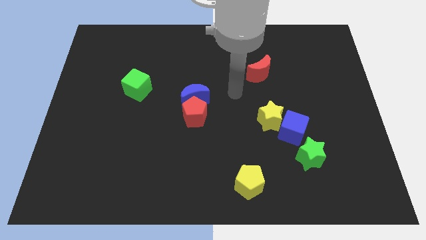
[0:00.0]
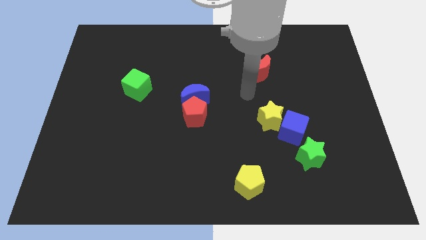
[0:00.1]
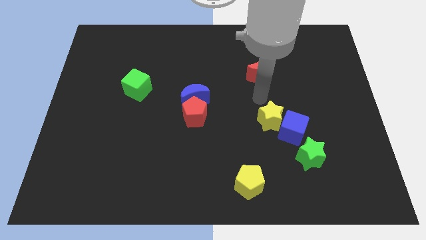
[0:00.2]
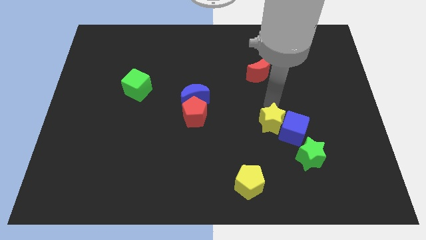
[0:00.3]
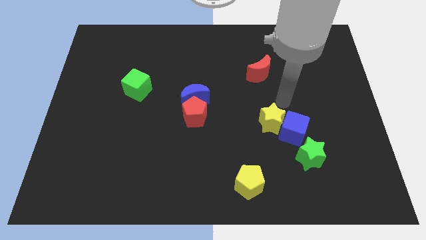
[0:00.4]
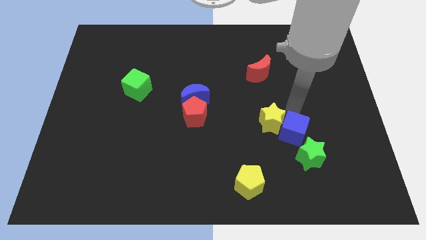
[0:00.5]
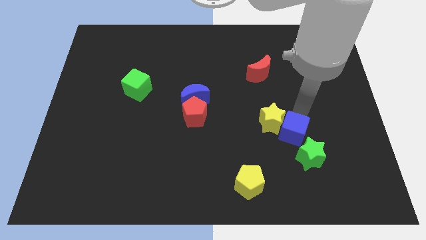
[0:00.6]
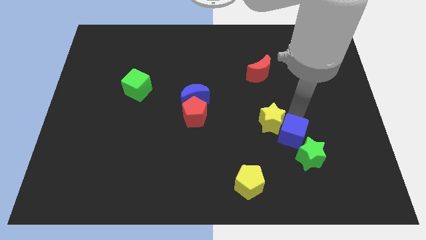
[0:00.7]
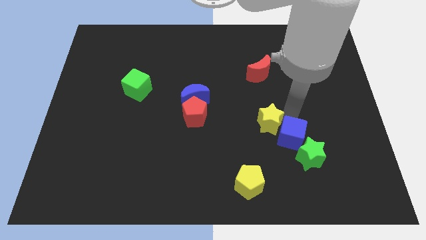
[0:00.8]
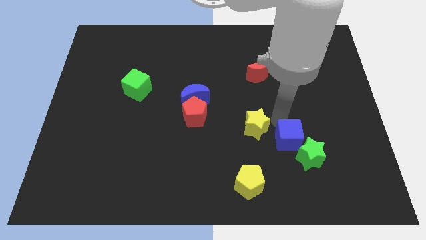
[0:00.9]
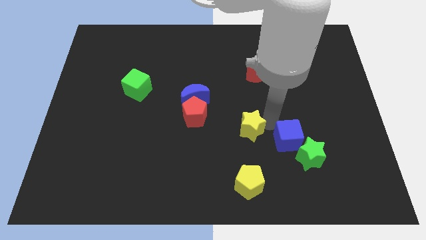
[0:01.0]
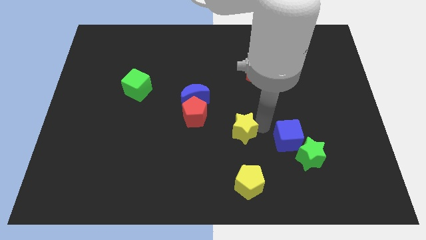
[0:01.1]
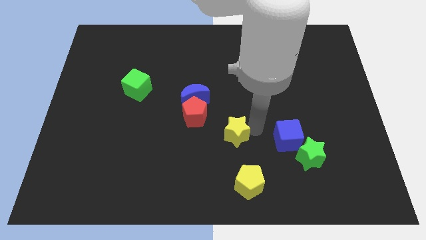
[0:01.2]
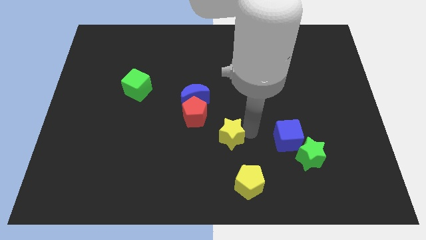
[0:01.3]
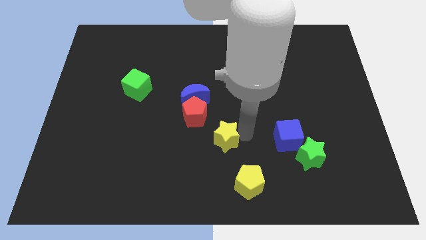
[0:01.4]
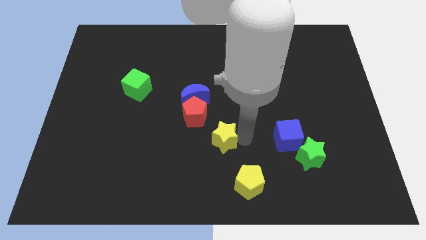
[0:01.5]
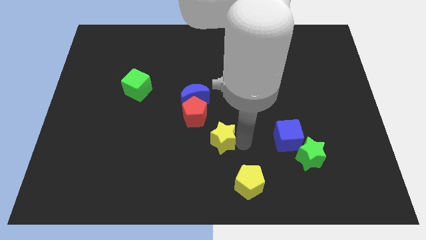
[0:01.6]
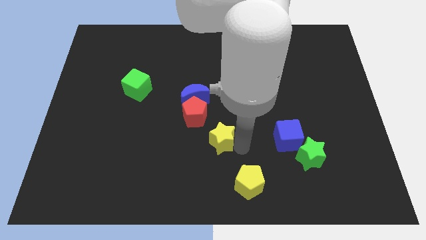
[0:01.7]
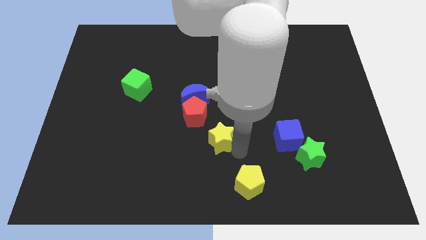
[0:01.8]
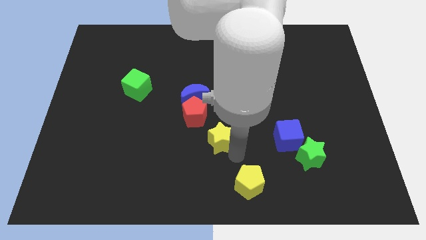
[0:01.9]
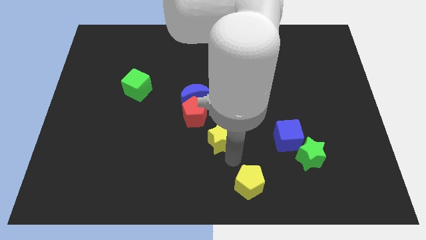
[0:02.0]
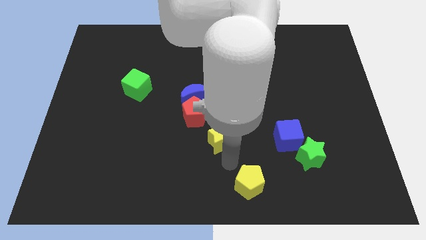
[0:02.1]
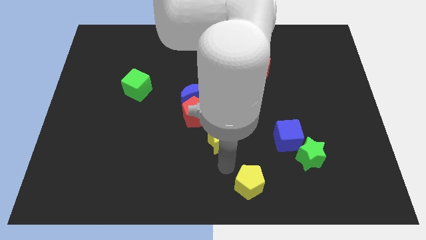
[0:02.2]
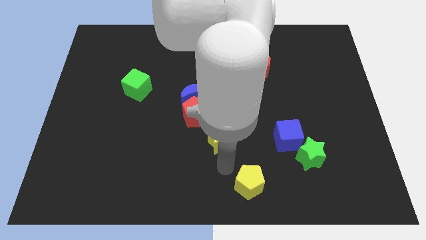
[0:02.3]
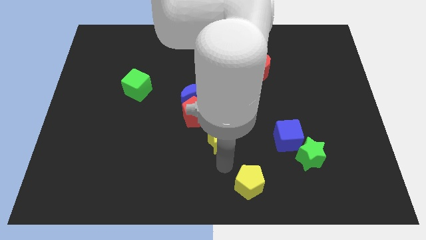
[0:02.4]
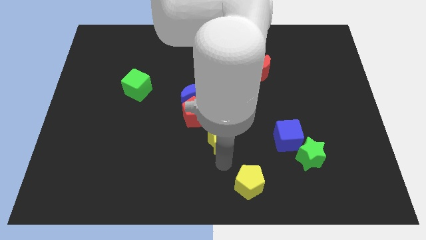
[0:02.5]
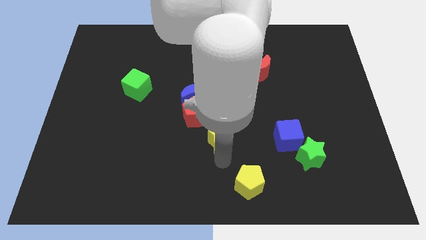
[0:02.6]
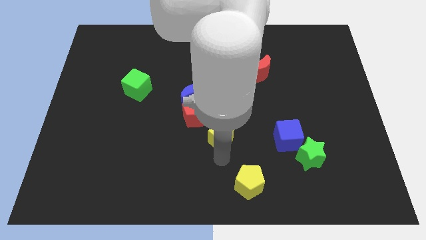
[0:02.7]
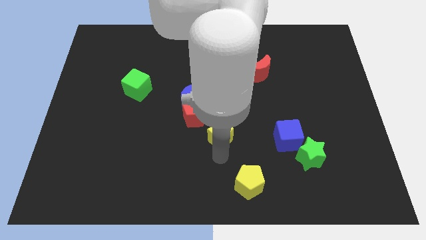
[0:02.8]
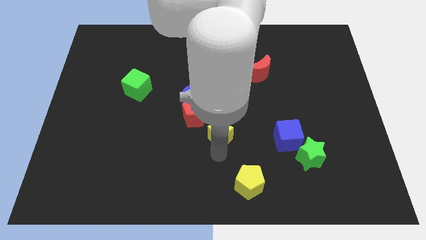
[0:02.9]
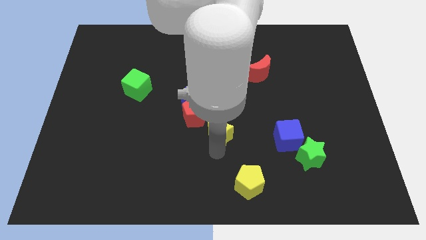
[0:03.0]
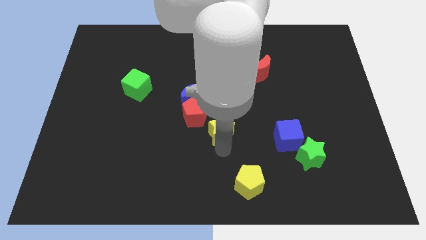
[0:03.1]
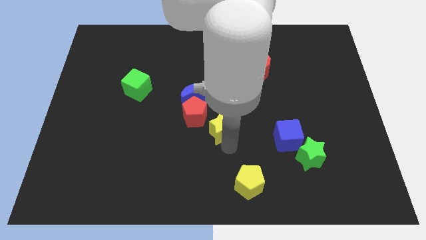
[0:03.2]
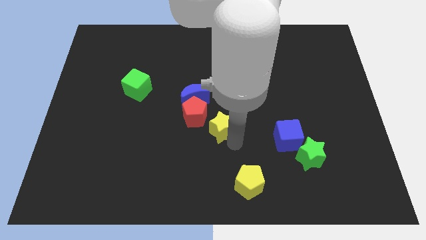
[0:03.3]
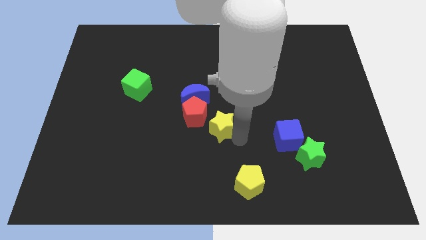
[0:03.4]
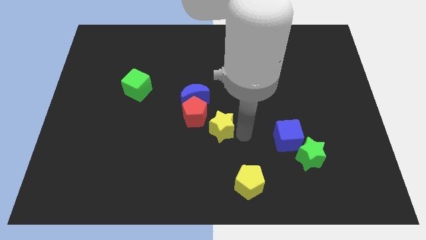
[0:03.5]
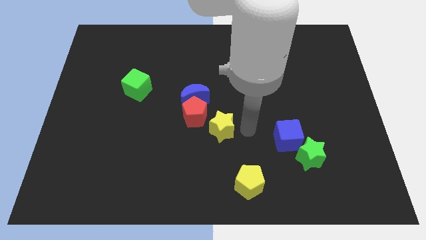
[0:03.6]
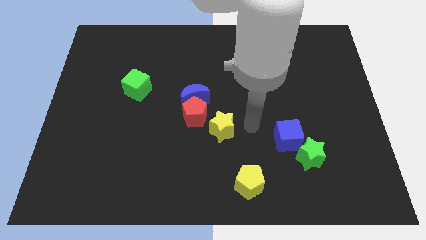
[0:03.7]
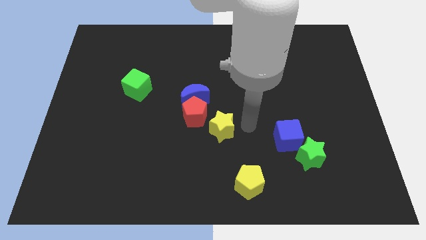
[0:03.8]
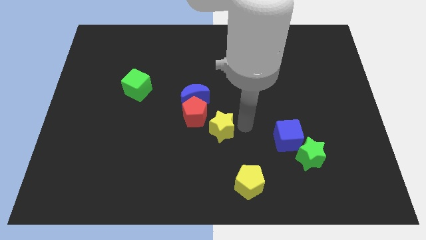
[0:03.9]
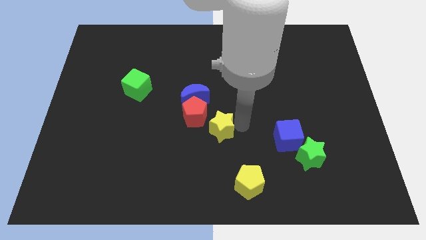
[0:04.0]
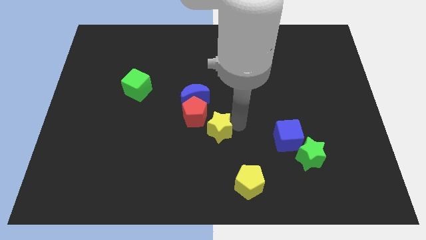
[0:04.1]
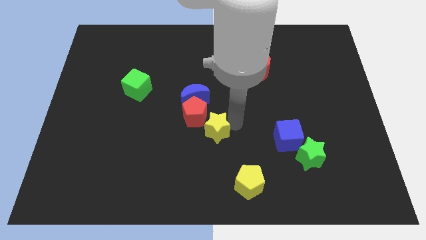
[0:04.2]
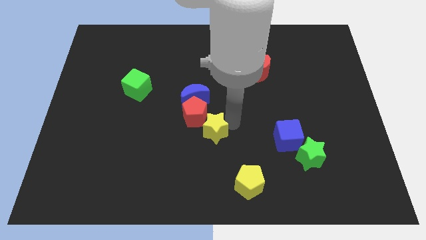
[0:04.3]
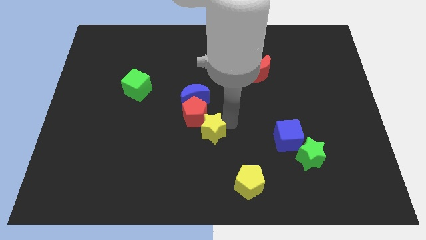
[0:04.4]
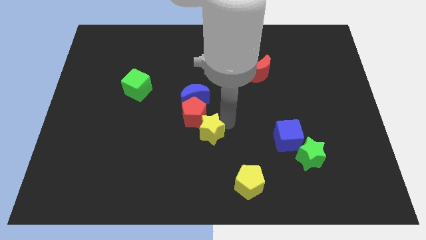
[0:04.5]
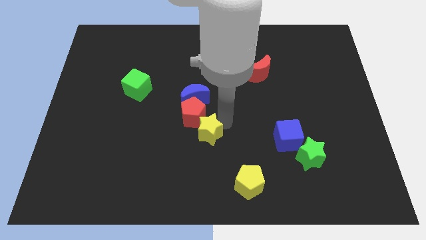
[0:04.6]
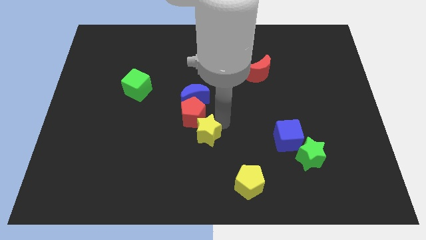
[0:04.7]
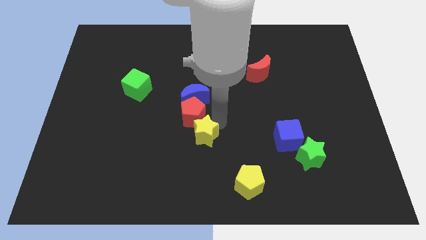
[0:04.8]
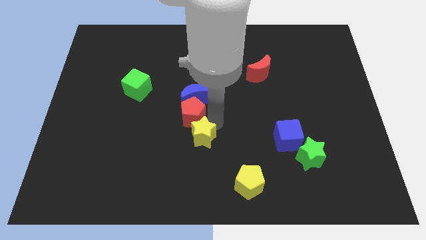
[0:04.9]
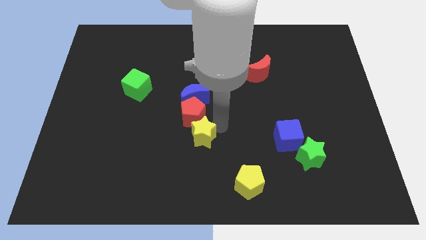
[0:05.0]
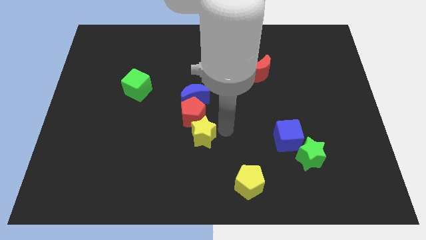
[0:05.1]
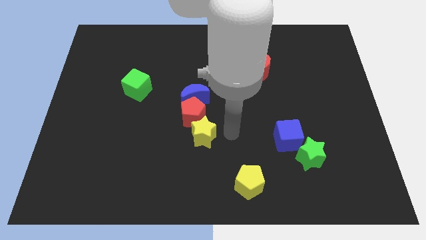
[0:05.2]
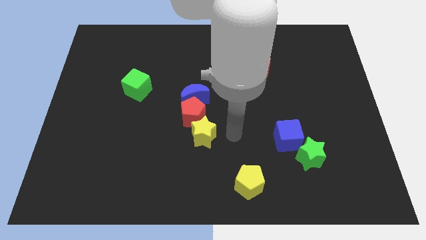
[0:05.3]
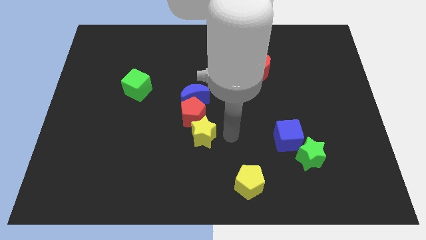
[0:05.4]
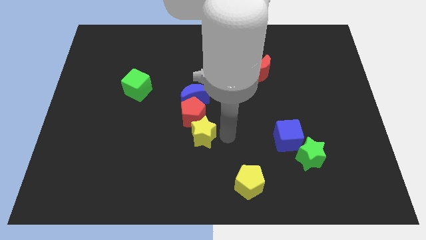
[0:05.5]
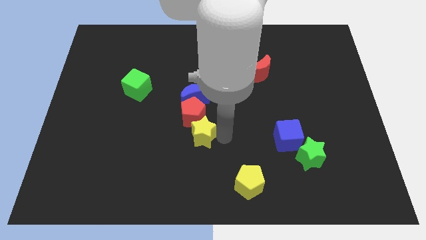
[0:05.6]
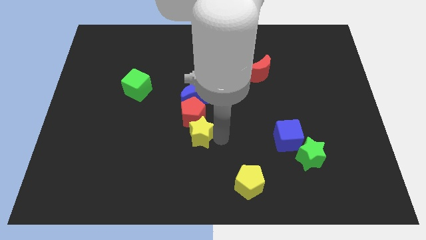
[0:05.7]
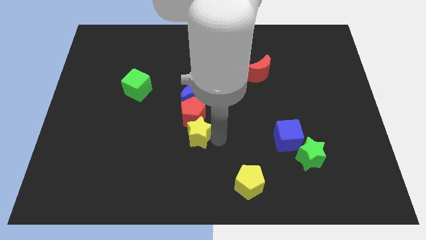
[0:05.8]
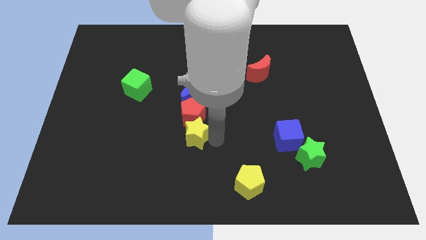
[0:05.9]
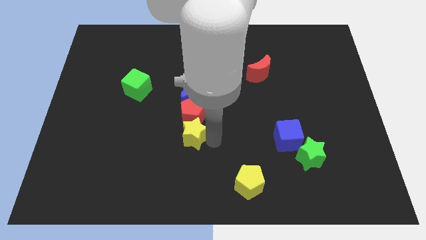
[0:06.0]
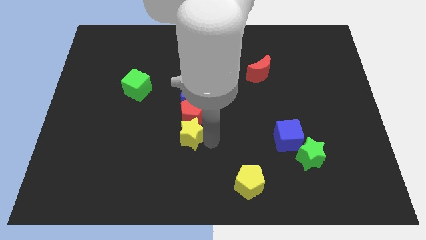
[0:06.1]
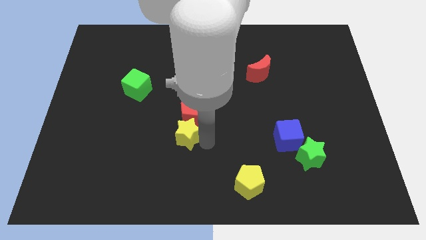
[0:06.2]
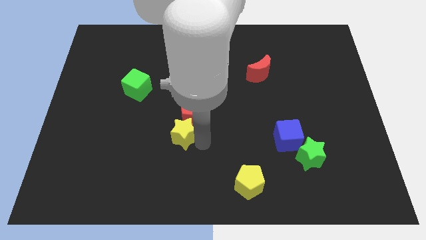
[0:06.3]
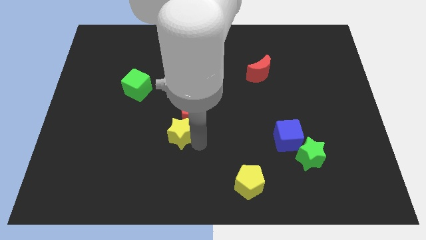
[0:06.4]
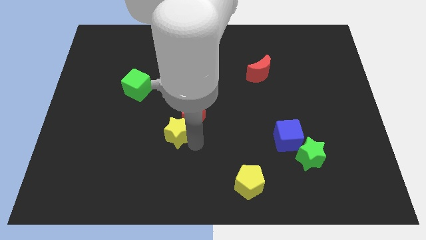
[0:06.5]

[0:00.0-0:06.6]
push the yellow star to the left

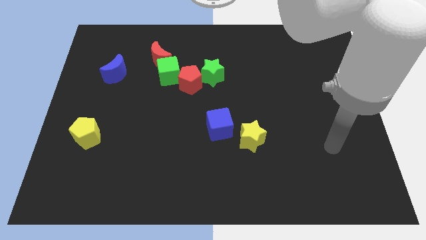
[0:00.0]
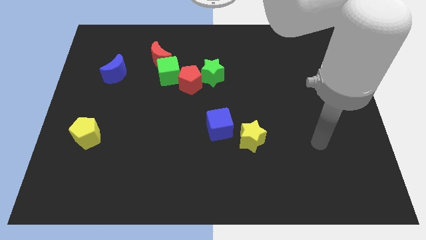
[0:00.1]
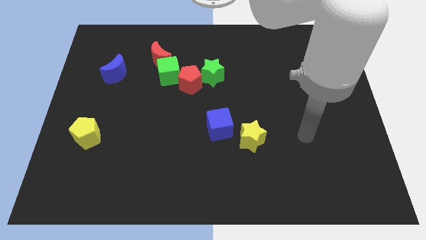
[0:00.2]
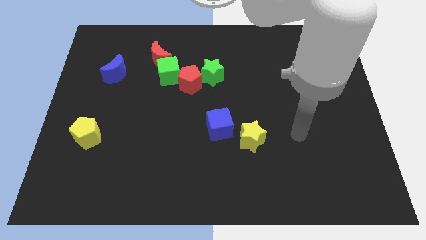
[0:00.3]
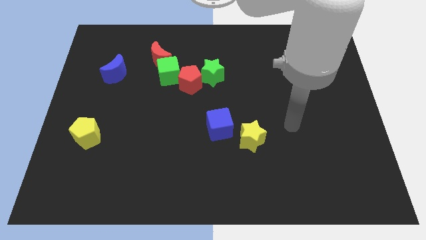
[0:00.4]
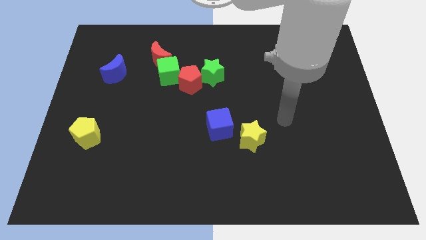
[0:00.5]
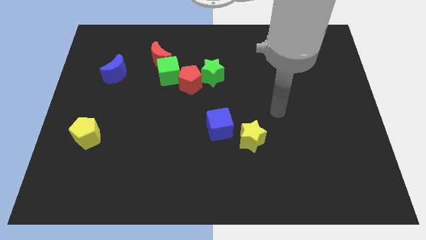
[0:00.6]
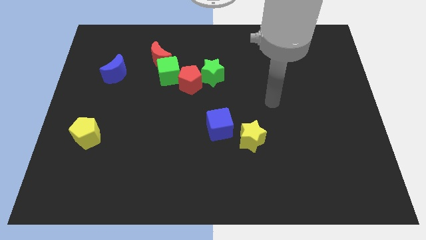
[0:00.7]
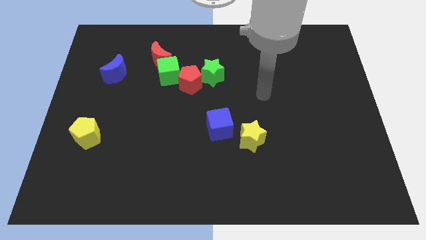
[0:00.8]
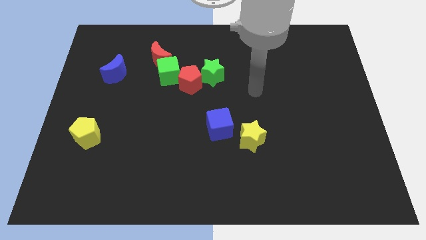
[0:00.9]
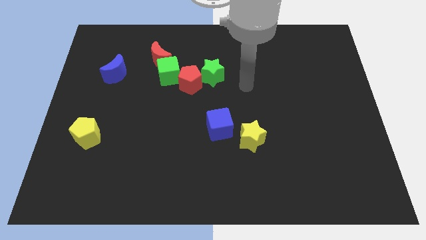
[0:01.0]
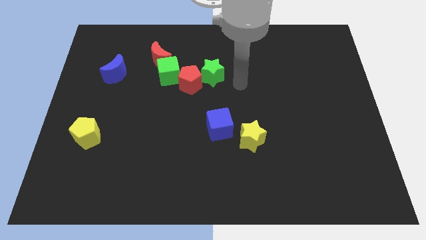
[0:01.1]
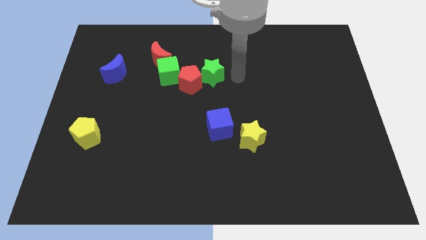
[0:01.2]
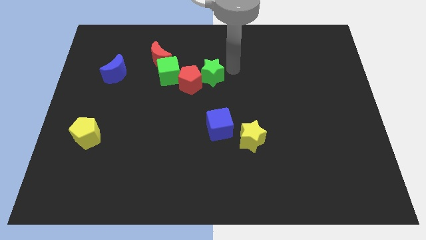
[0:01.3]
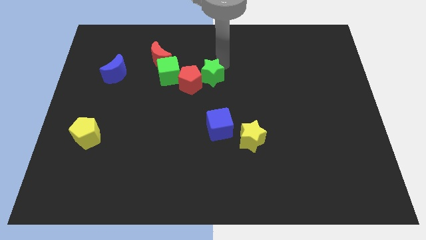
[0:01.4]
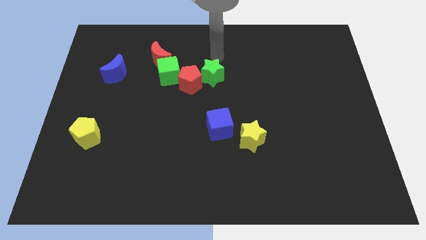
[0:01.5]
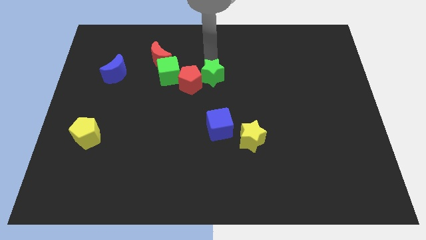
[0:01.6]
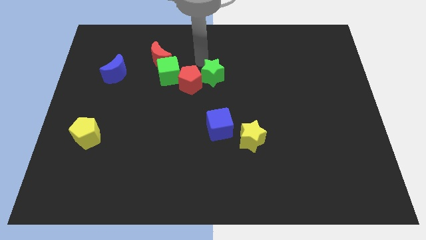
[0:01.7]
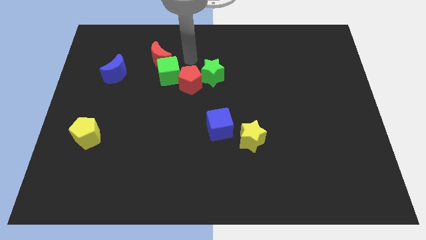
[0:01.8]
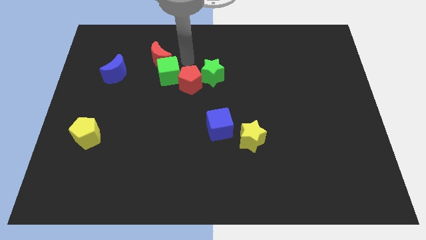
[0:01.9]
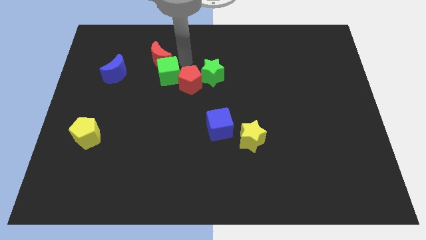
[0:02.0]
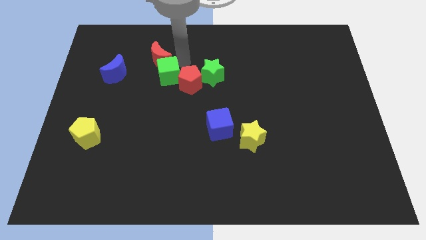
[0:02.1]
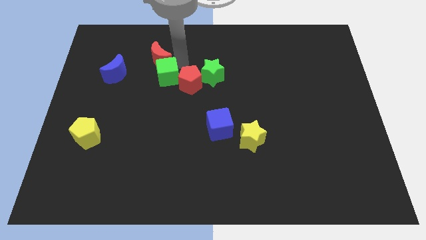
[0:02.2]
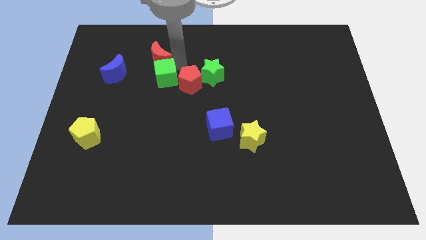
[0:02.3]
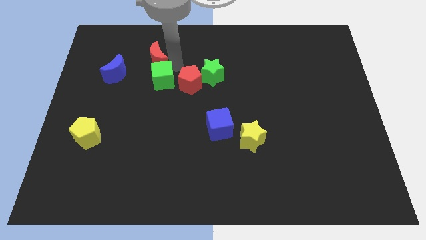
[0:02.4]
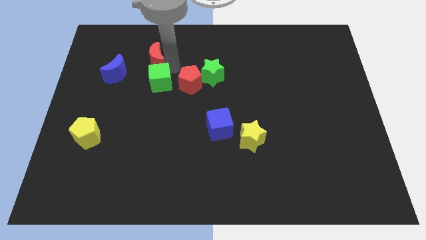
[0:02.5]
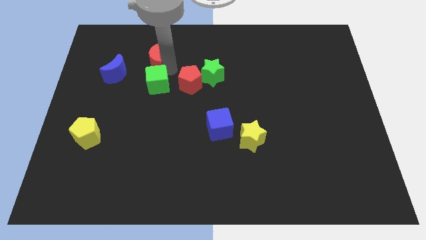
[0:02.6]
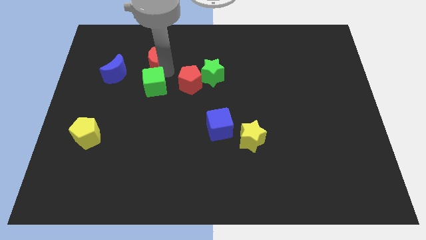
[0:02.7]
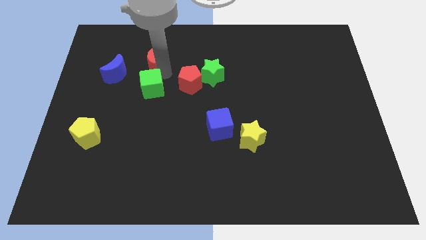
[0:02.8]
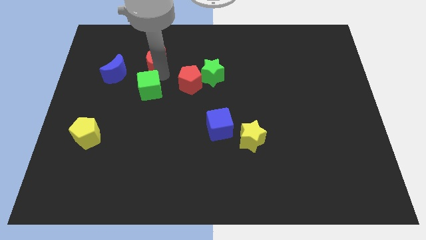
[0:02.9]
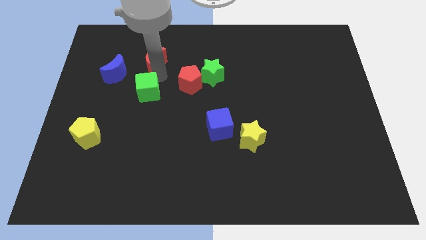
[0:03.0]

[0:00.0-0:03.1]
move the green cube downwards and left diagonally somewhat
